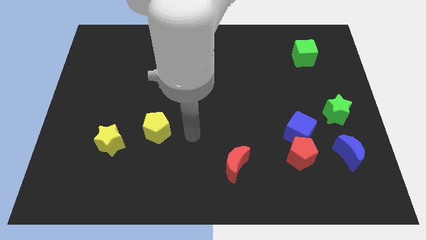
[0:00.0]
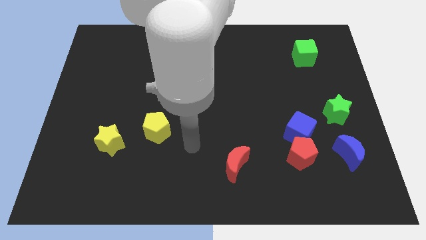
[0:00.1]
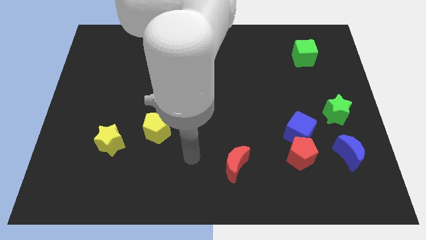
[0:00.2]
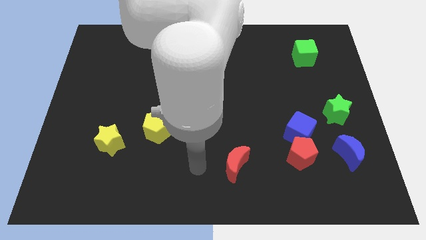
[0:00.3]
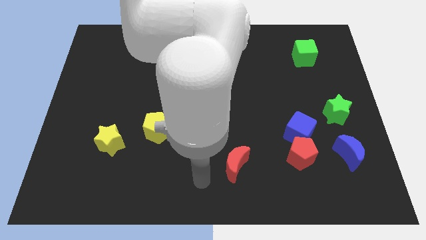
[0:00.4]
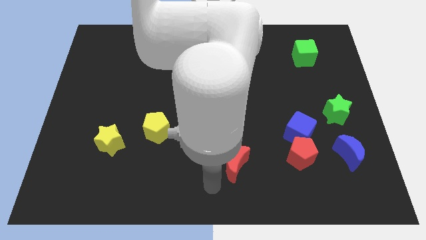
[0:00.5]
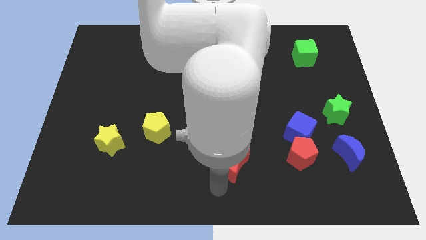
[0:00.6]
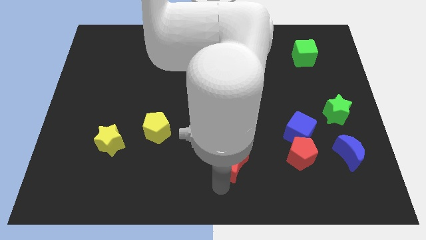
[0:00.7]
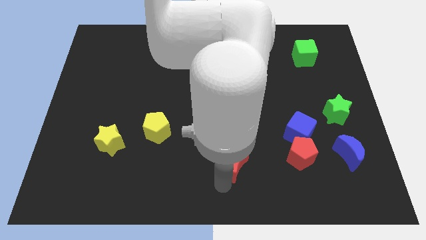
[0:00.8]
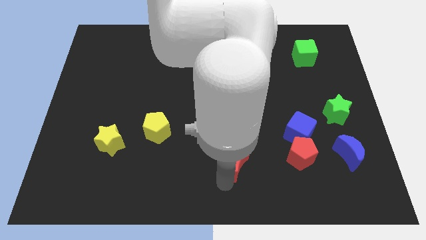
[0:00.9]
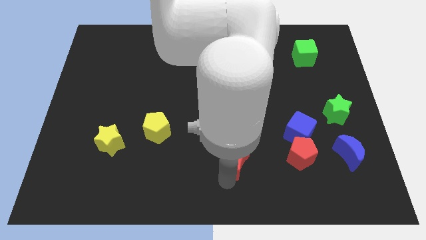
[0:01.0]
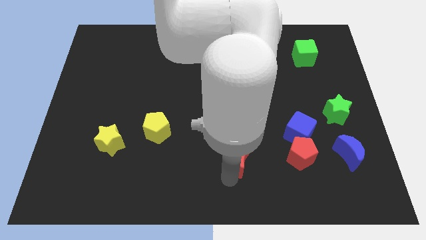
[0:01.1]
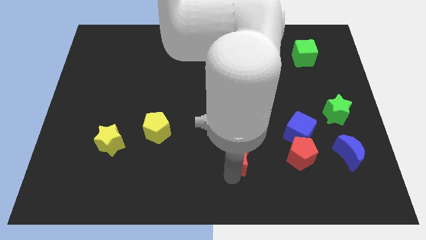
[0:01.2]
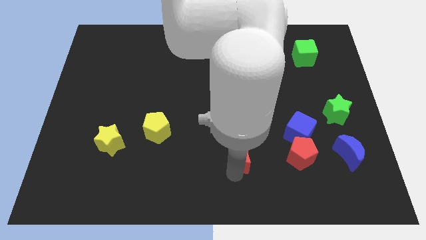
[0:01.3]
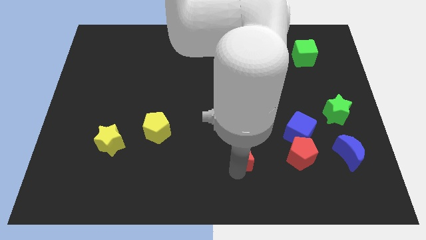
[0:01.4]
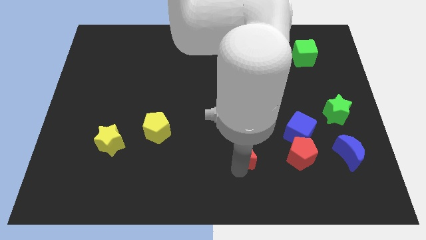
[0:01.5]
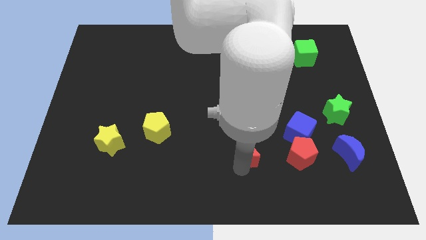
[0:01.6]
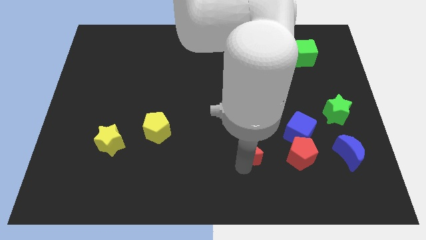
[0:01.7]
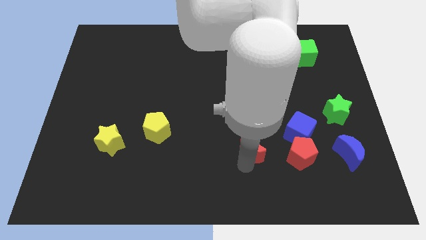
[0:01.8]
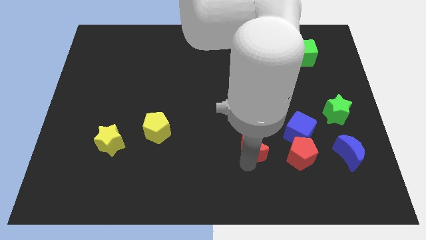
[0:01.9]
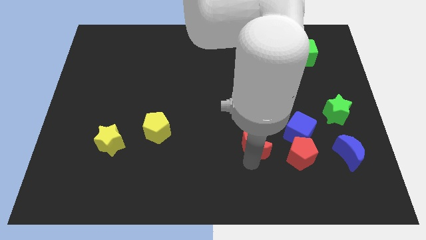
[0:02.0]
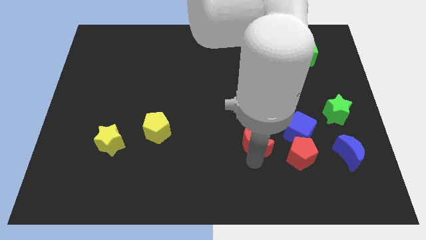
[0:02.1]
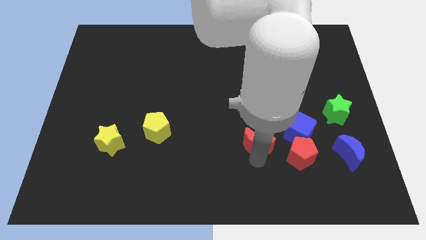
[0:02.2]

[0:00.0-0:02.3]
push the red moon somewhat diagonally upwards and right

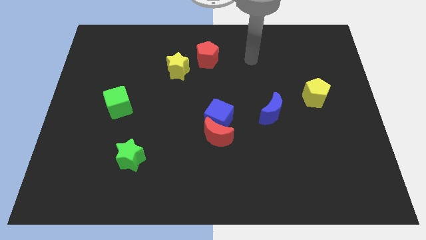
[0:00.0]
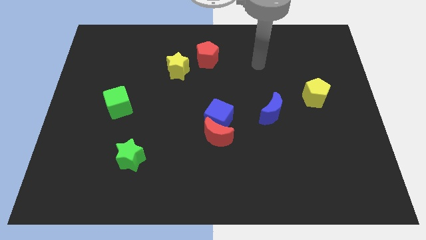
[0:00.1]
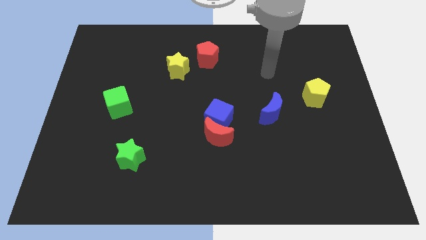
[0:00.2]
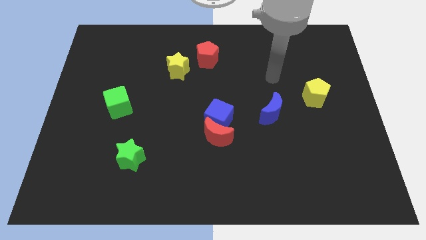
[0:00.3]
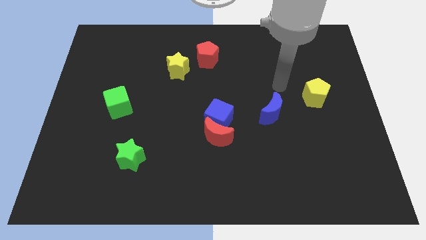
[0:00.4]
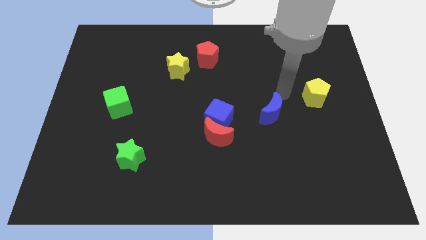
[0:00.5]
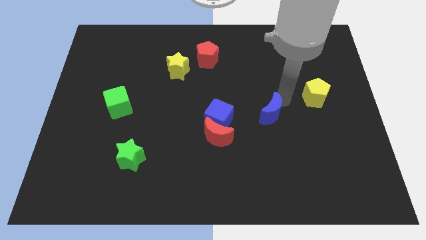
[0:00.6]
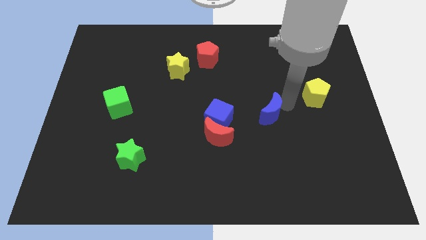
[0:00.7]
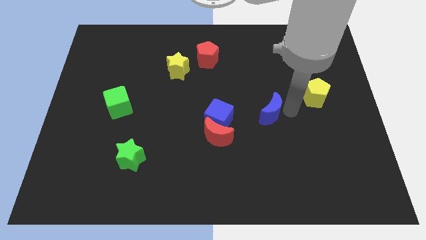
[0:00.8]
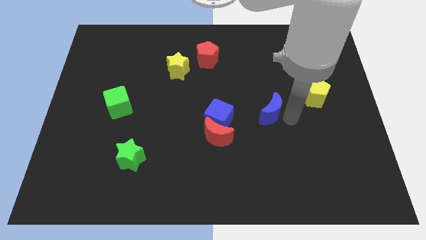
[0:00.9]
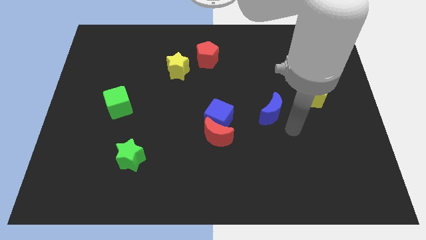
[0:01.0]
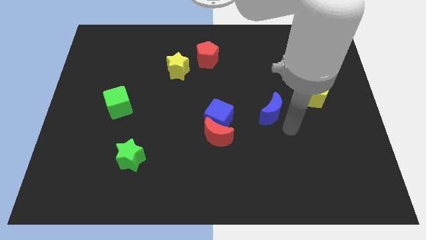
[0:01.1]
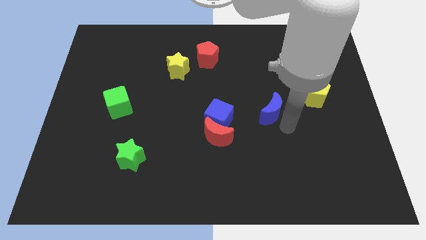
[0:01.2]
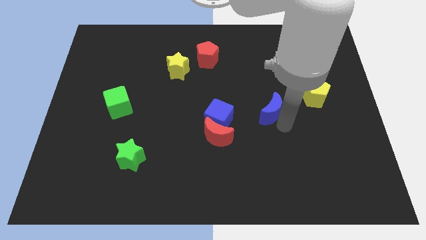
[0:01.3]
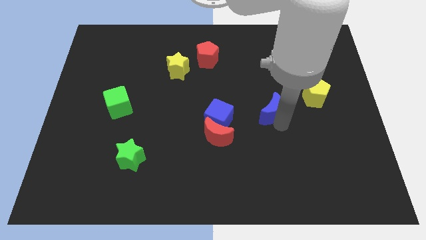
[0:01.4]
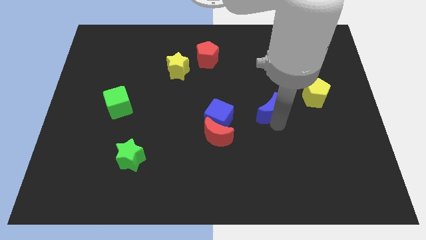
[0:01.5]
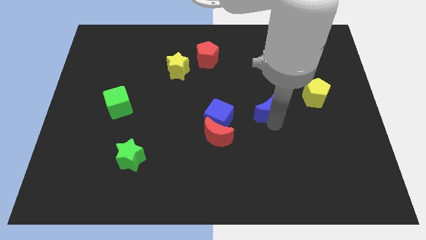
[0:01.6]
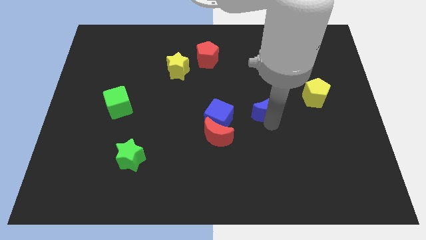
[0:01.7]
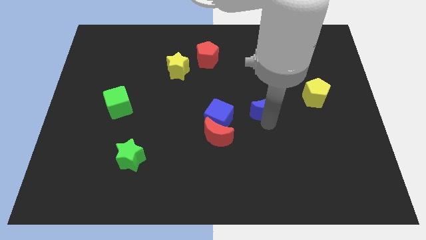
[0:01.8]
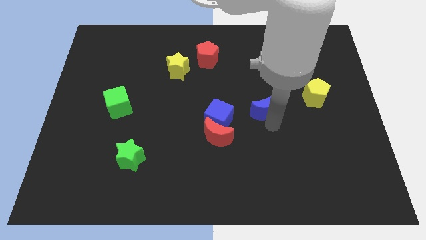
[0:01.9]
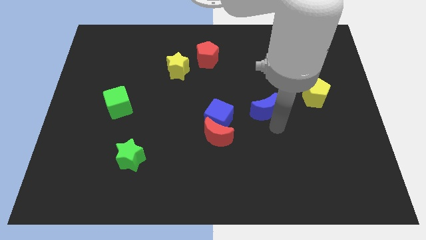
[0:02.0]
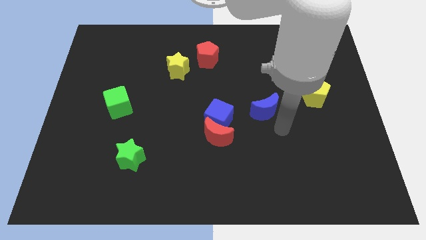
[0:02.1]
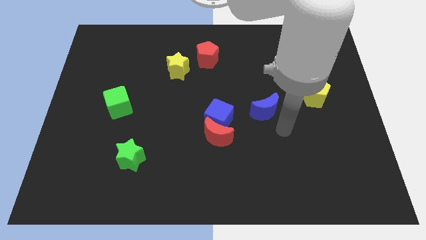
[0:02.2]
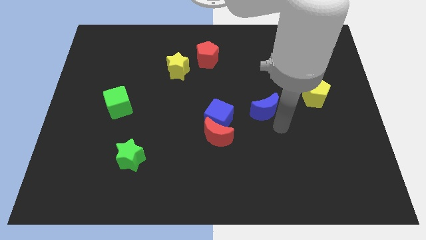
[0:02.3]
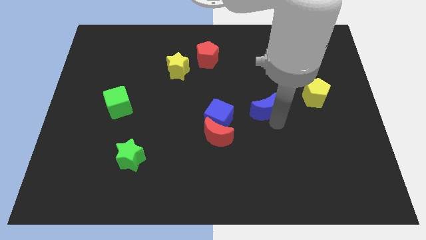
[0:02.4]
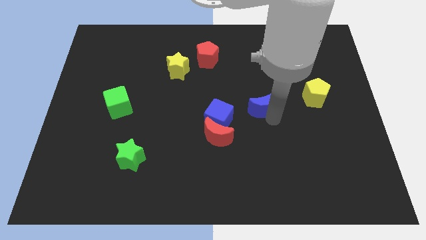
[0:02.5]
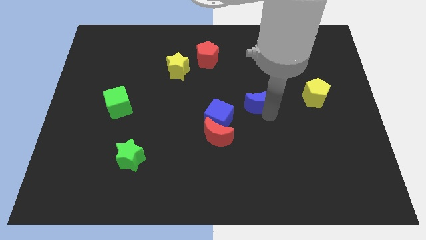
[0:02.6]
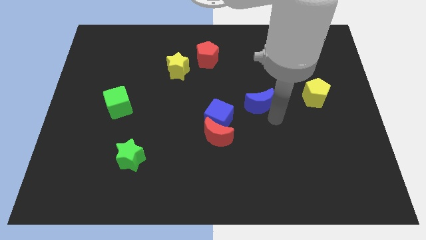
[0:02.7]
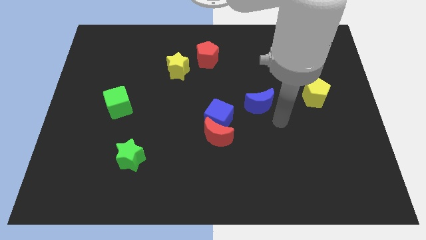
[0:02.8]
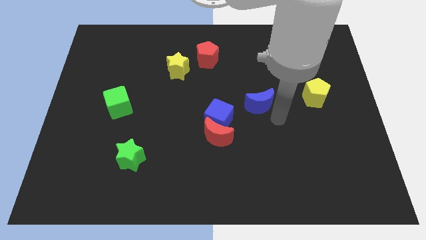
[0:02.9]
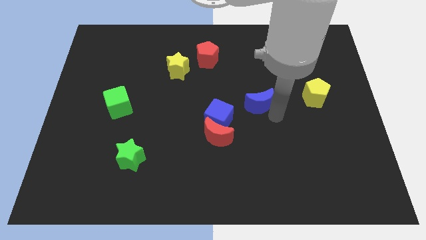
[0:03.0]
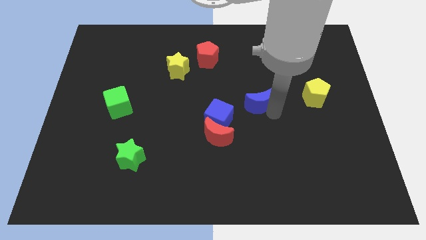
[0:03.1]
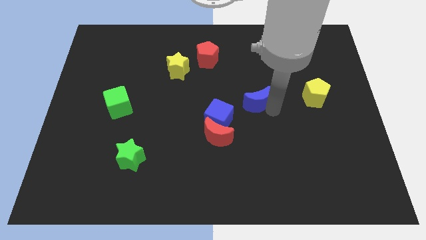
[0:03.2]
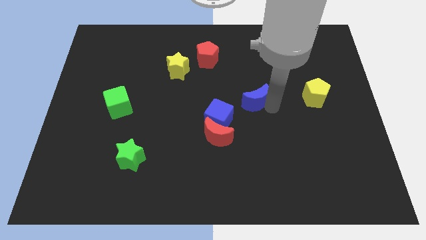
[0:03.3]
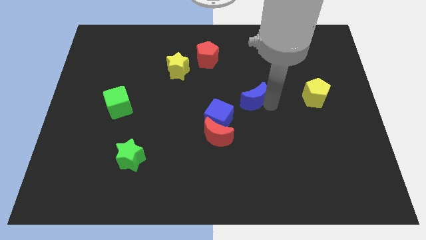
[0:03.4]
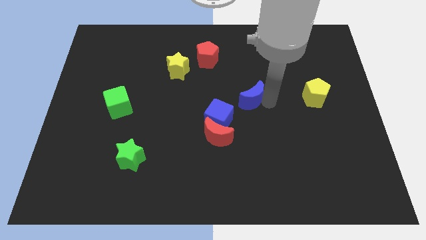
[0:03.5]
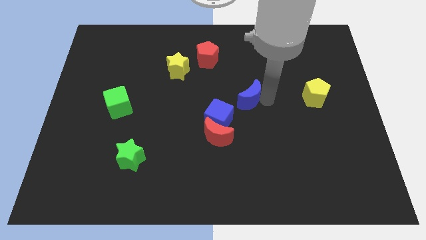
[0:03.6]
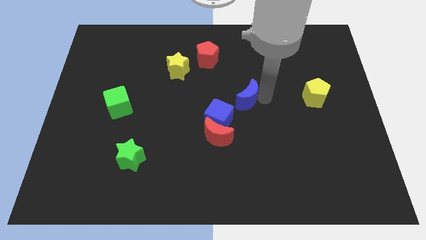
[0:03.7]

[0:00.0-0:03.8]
slide the blue moon slightly up and then to the left

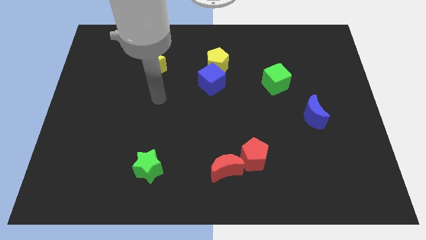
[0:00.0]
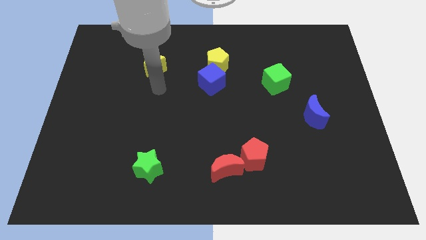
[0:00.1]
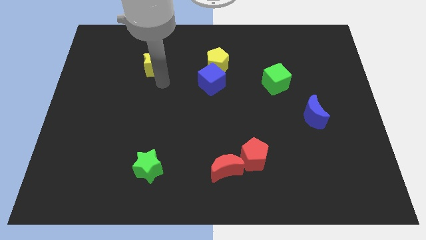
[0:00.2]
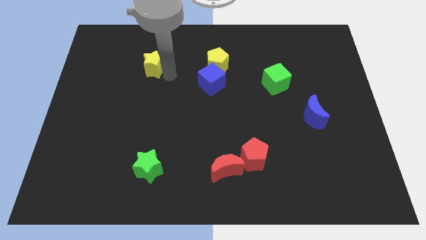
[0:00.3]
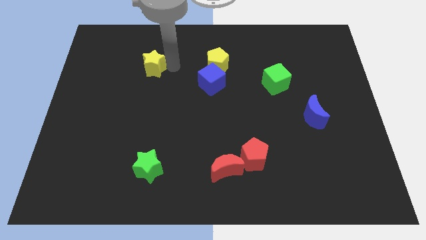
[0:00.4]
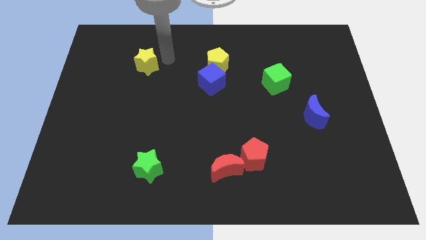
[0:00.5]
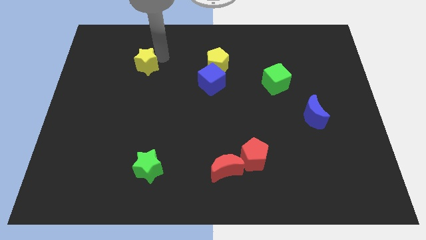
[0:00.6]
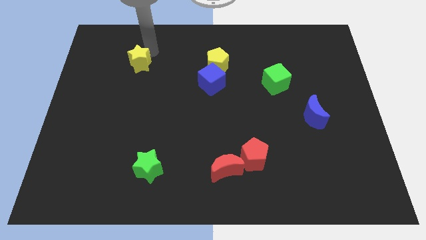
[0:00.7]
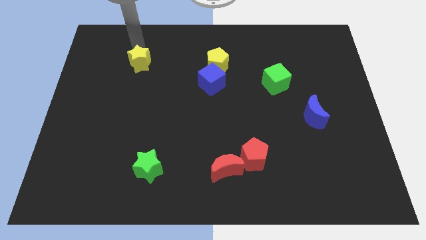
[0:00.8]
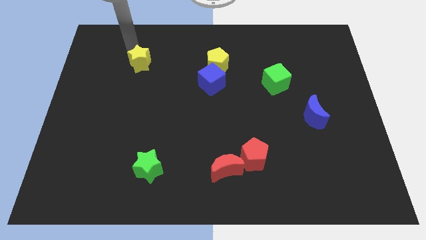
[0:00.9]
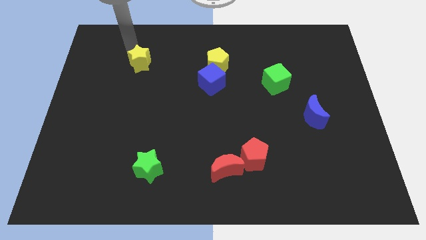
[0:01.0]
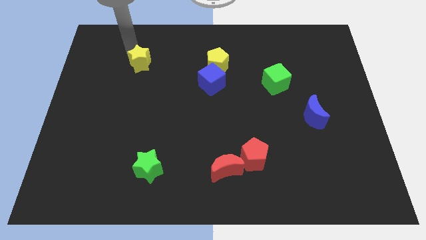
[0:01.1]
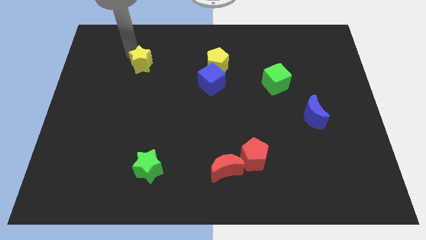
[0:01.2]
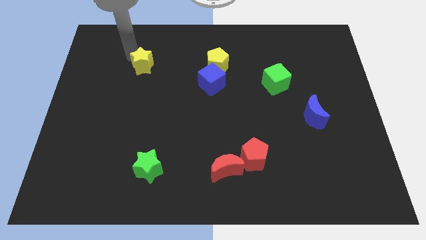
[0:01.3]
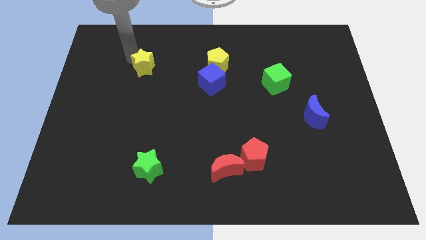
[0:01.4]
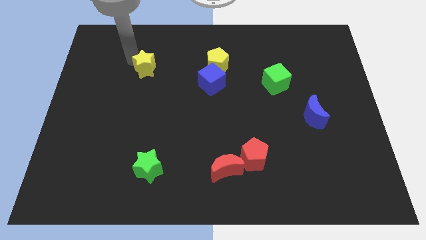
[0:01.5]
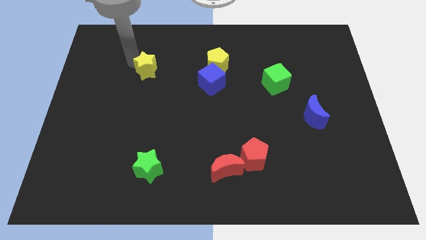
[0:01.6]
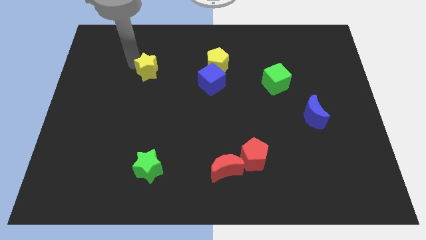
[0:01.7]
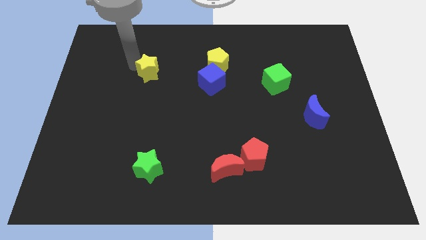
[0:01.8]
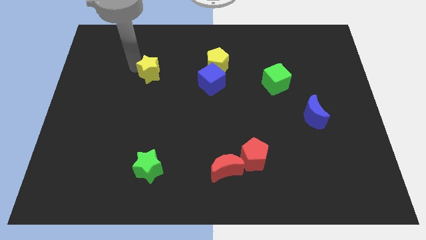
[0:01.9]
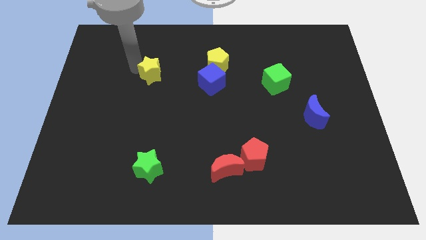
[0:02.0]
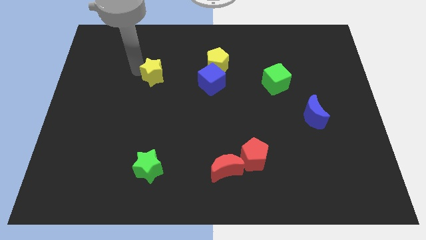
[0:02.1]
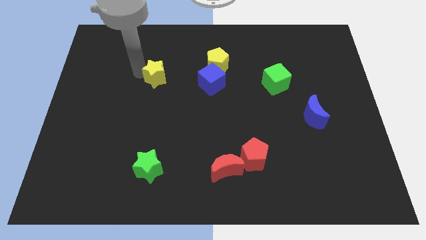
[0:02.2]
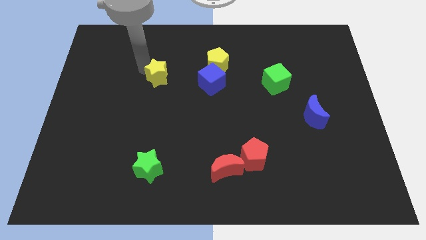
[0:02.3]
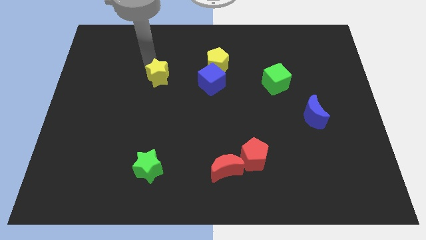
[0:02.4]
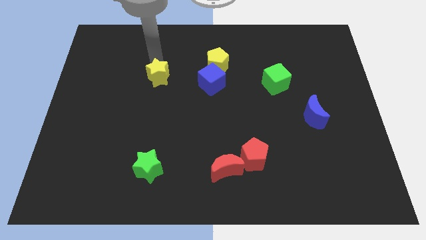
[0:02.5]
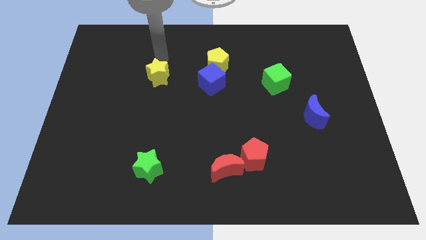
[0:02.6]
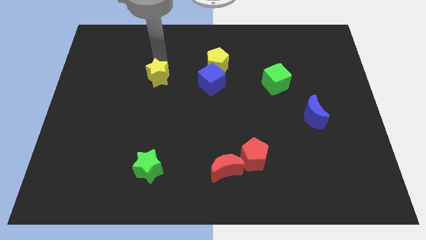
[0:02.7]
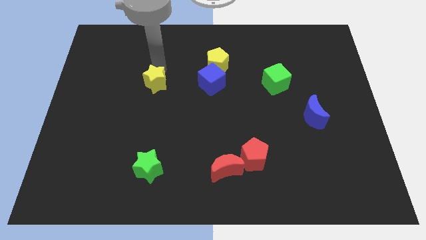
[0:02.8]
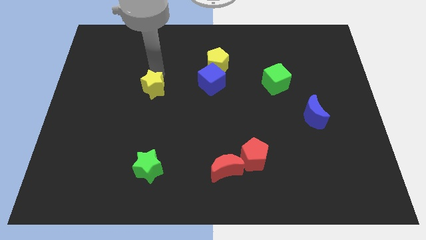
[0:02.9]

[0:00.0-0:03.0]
move the yellow star down a bit
